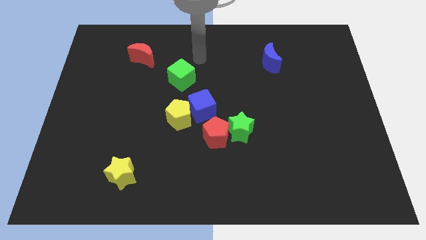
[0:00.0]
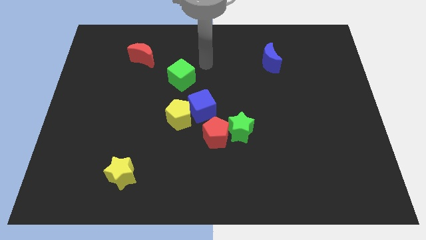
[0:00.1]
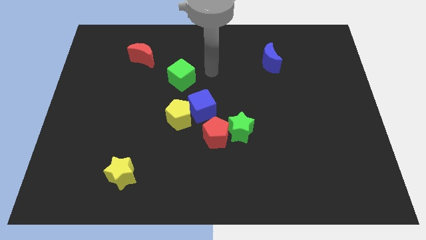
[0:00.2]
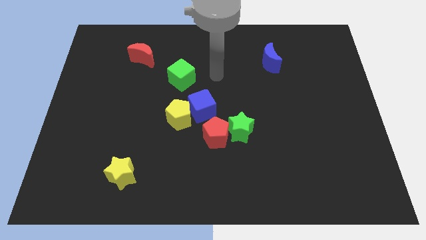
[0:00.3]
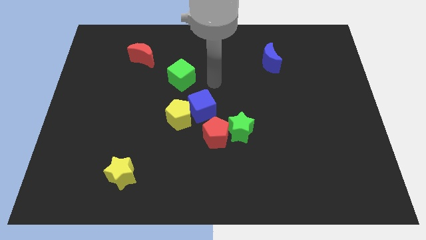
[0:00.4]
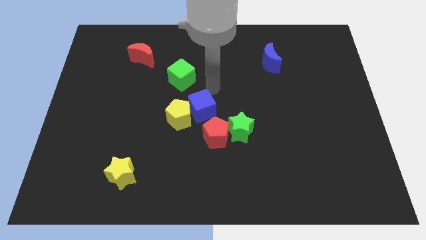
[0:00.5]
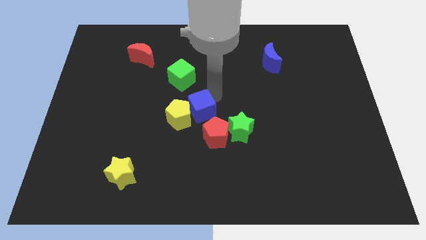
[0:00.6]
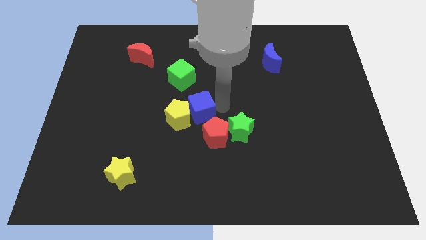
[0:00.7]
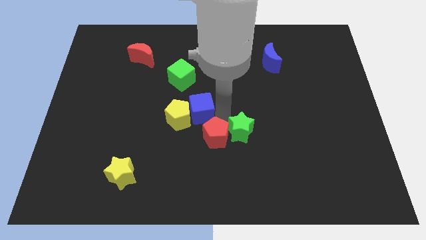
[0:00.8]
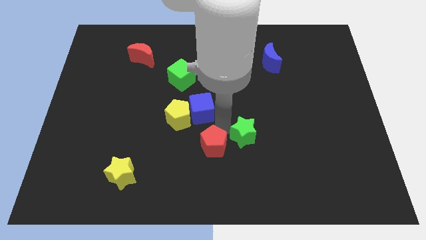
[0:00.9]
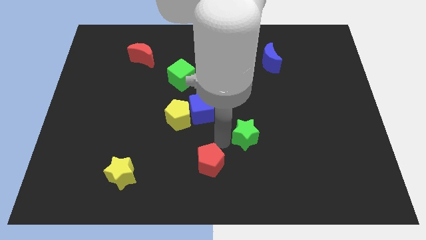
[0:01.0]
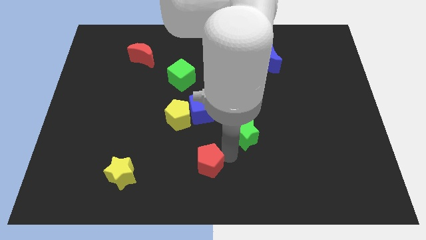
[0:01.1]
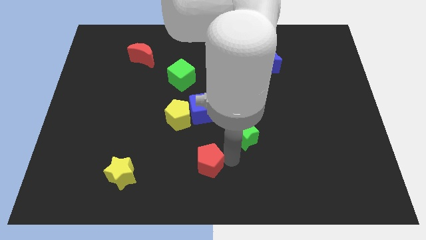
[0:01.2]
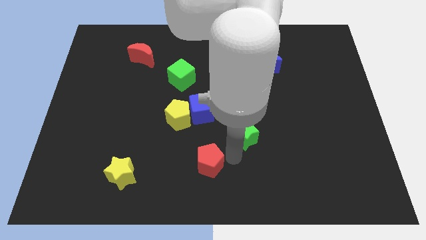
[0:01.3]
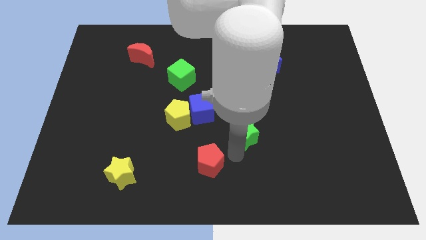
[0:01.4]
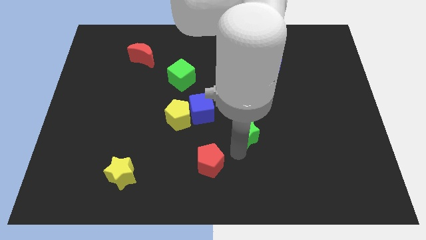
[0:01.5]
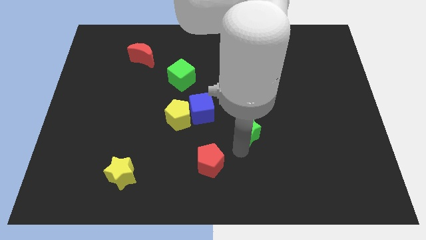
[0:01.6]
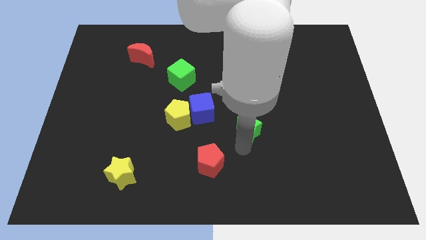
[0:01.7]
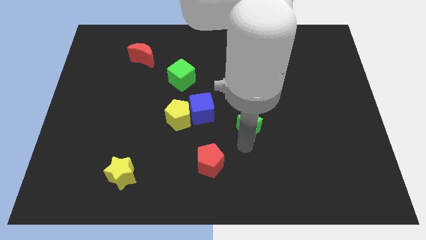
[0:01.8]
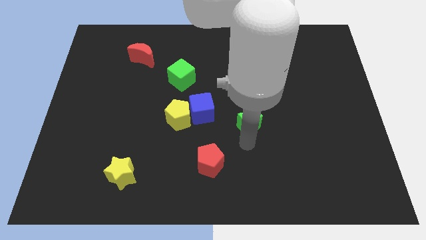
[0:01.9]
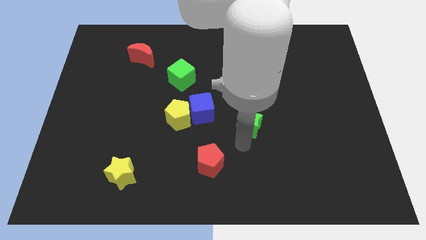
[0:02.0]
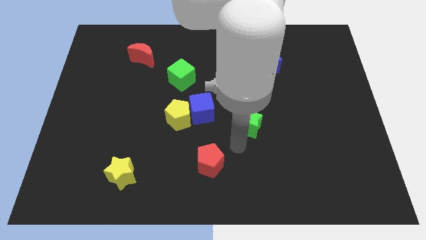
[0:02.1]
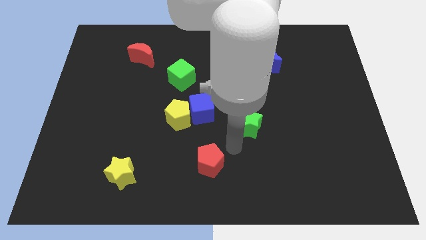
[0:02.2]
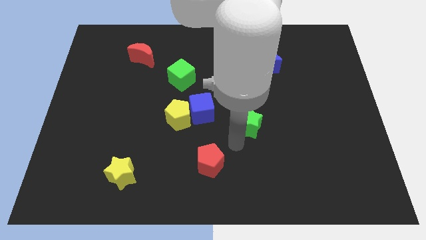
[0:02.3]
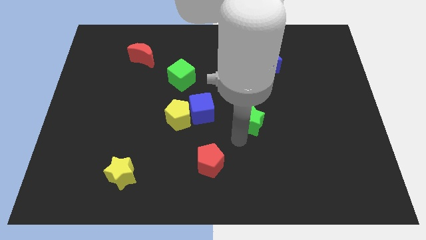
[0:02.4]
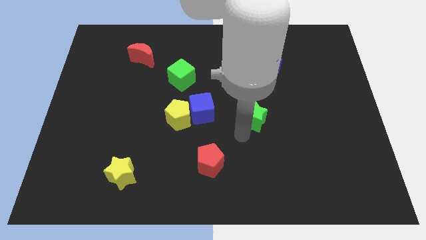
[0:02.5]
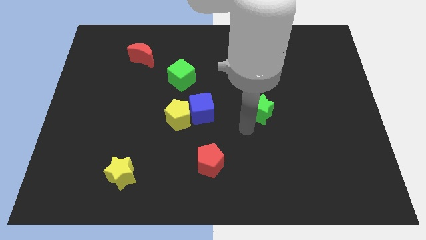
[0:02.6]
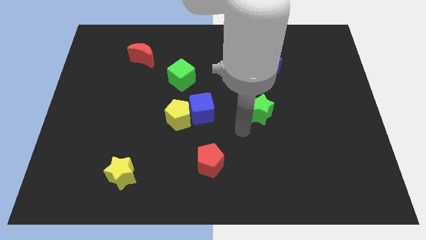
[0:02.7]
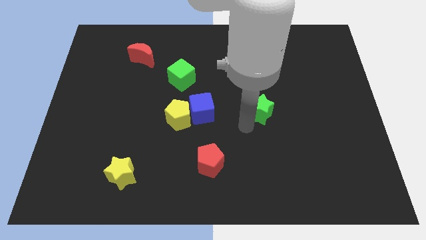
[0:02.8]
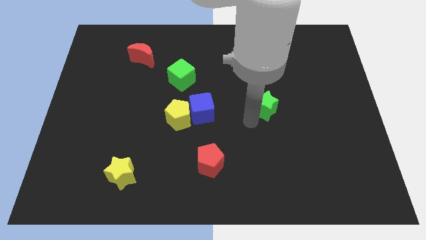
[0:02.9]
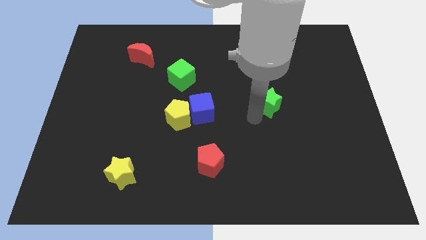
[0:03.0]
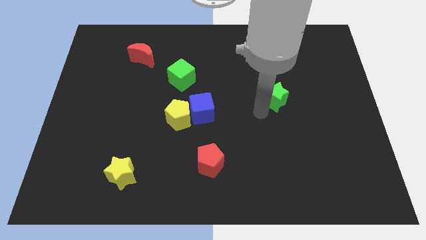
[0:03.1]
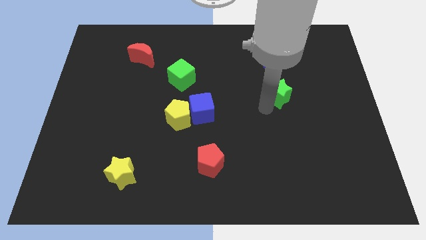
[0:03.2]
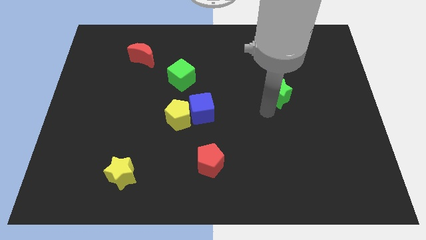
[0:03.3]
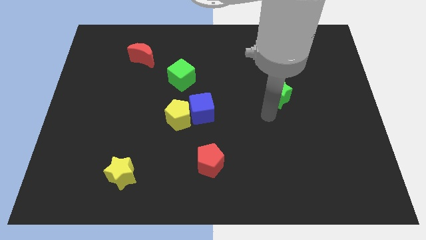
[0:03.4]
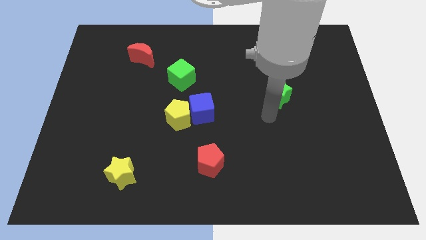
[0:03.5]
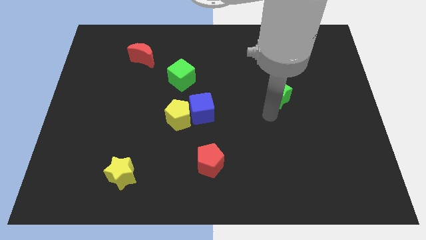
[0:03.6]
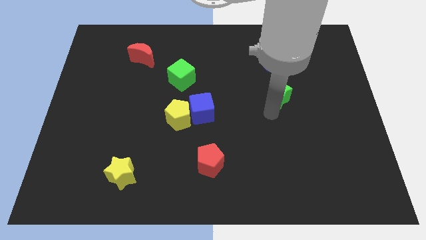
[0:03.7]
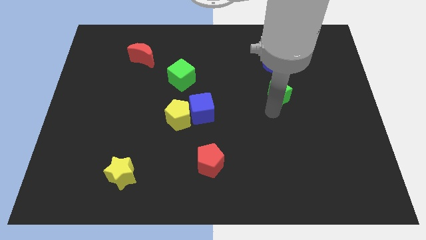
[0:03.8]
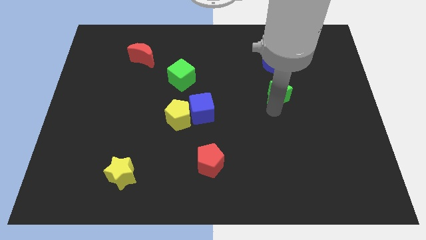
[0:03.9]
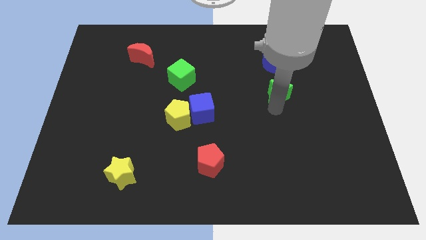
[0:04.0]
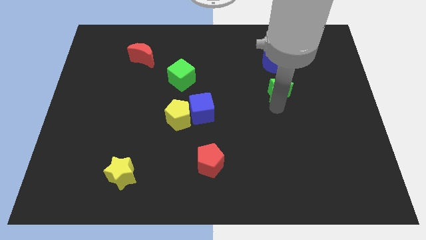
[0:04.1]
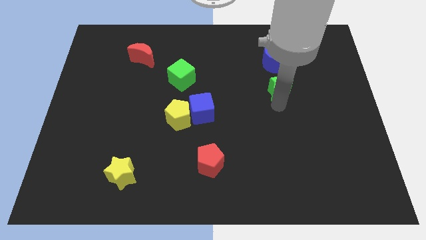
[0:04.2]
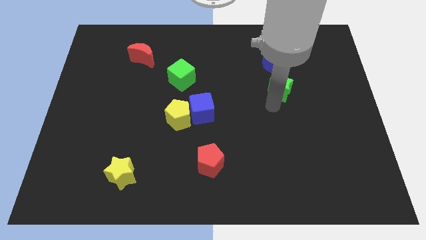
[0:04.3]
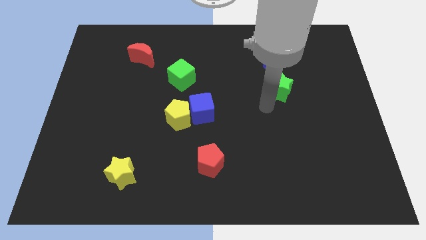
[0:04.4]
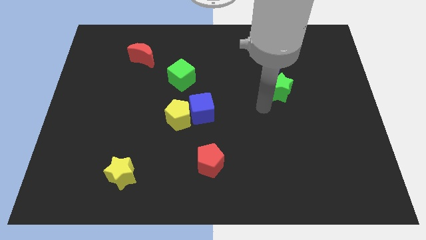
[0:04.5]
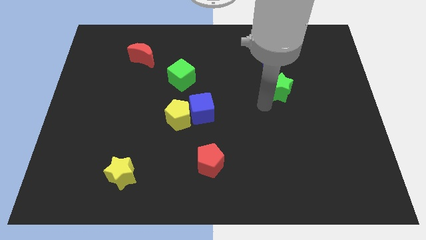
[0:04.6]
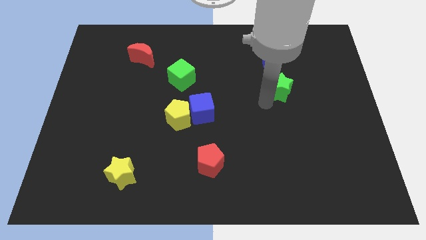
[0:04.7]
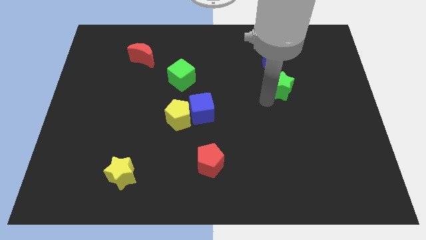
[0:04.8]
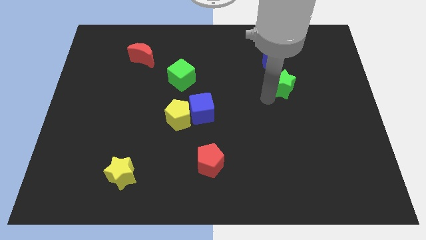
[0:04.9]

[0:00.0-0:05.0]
slide the green star diagonally down and to the right of the blue moon

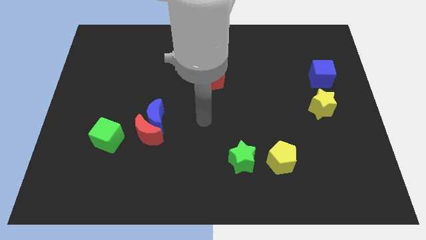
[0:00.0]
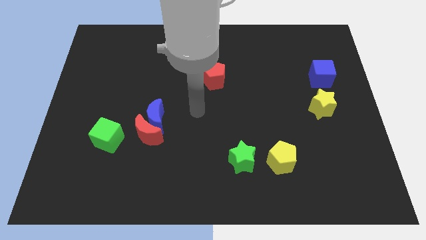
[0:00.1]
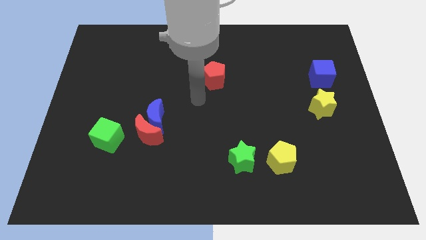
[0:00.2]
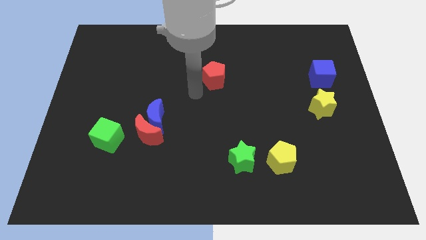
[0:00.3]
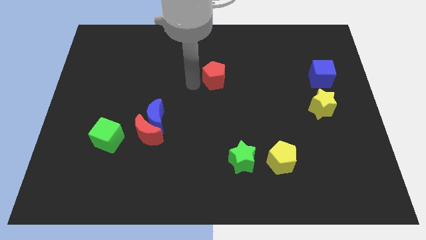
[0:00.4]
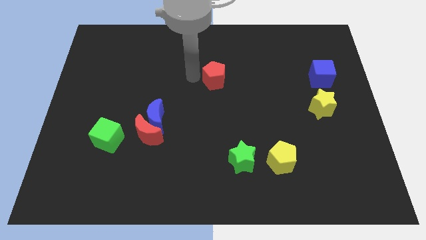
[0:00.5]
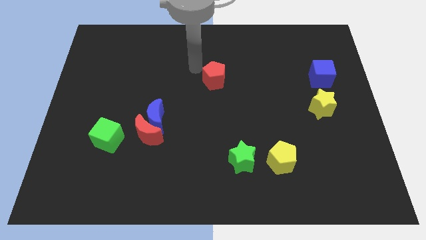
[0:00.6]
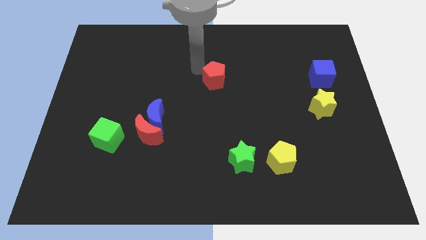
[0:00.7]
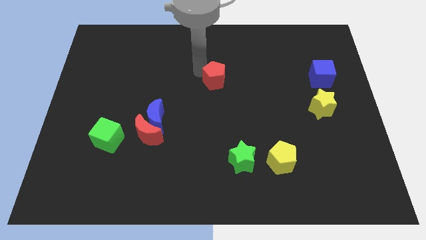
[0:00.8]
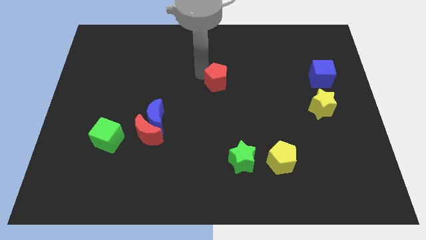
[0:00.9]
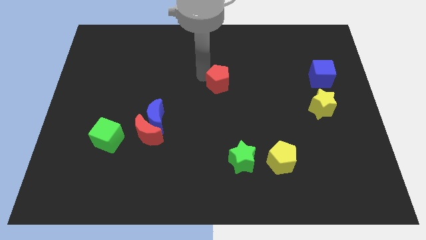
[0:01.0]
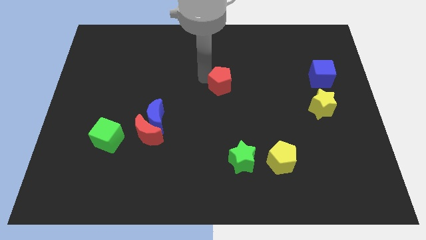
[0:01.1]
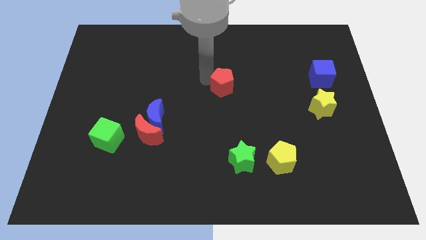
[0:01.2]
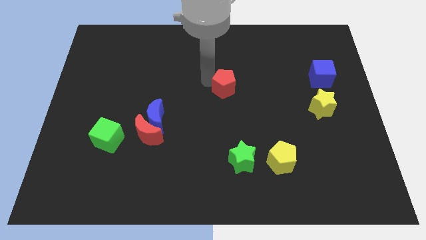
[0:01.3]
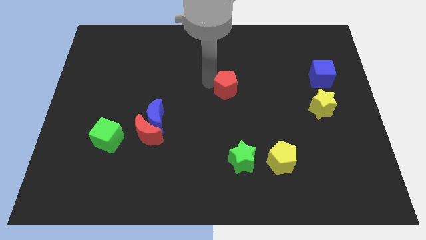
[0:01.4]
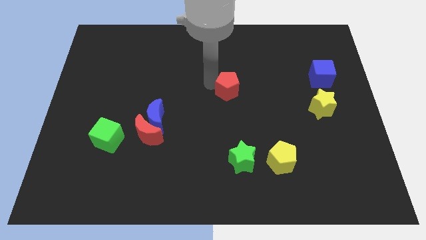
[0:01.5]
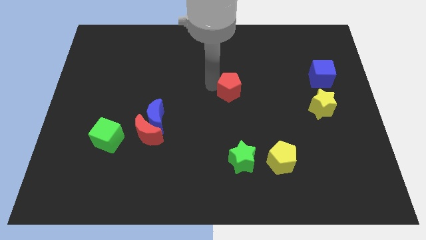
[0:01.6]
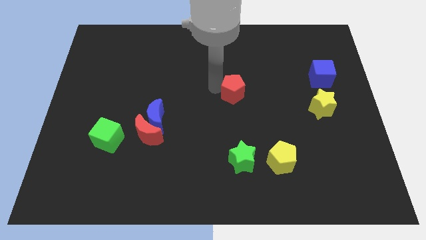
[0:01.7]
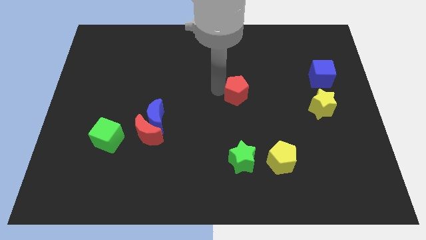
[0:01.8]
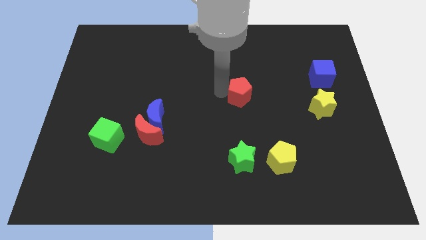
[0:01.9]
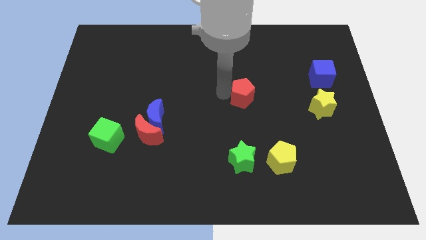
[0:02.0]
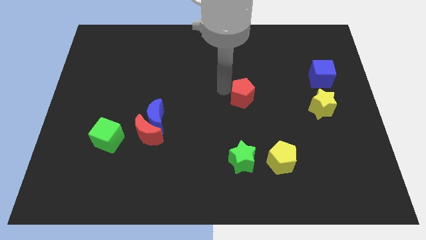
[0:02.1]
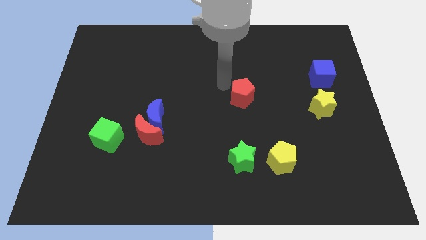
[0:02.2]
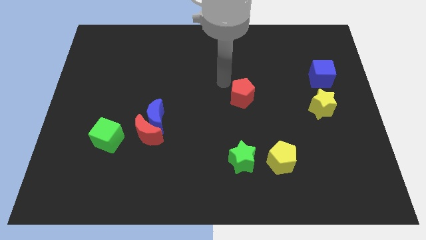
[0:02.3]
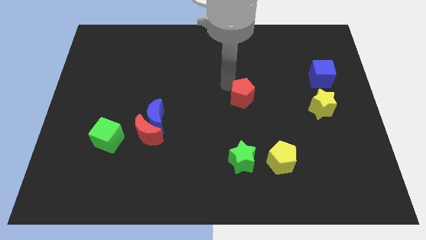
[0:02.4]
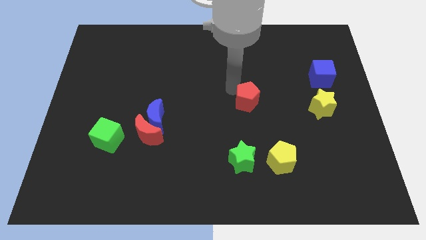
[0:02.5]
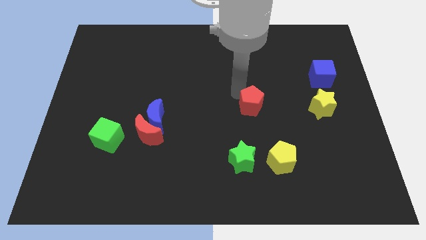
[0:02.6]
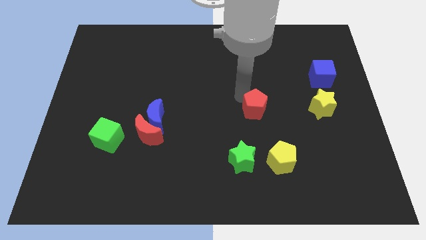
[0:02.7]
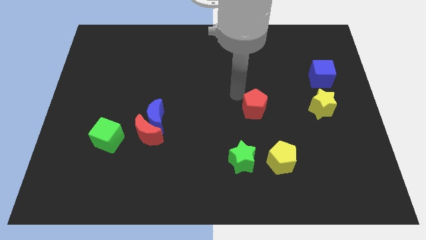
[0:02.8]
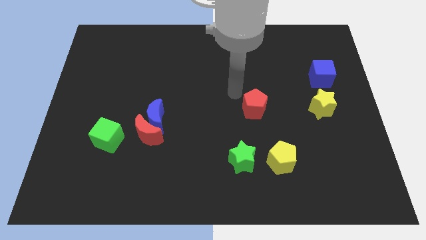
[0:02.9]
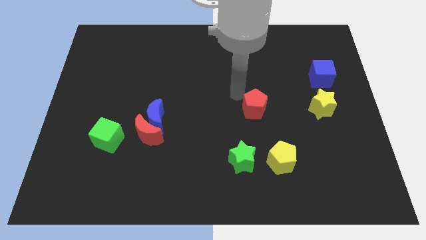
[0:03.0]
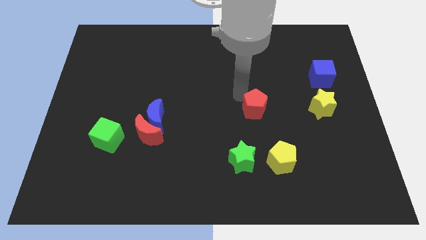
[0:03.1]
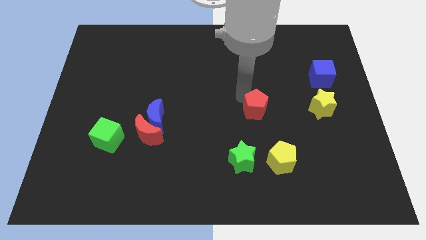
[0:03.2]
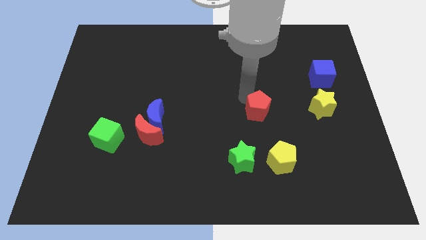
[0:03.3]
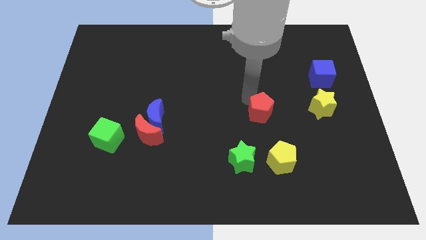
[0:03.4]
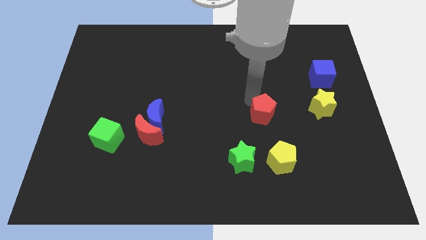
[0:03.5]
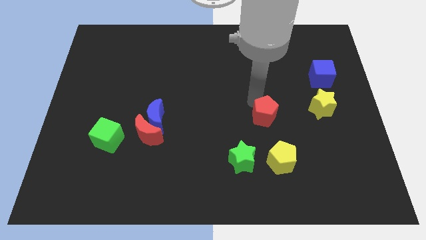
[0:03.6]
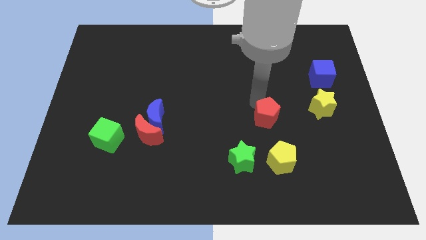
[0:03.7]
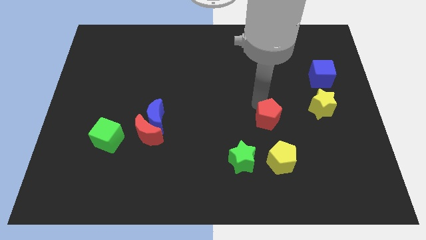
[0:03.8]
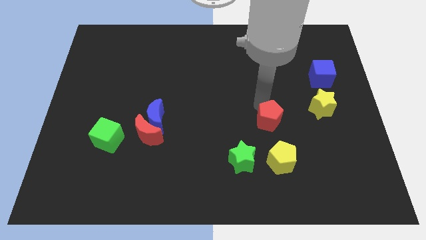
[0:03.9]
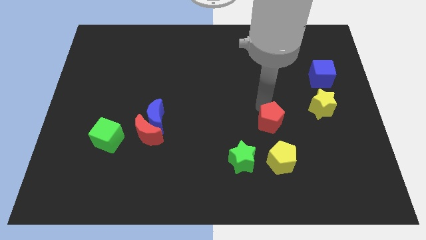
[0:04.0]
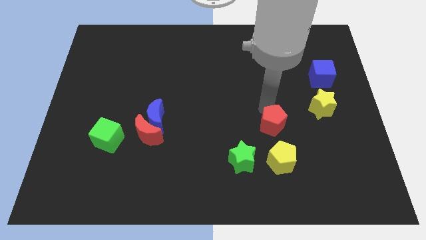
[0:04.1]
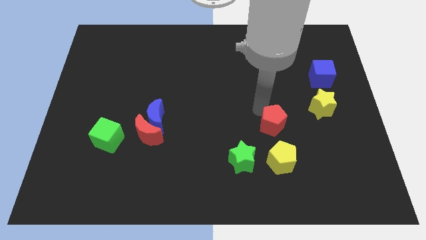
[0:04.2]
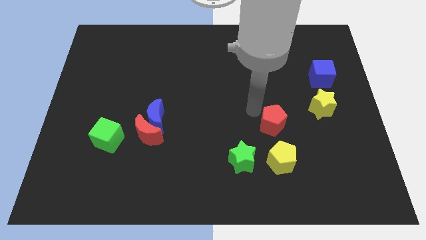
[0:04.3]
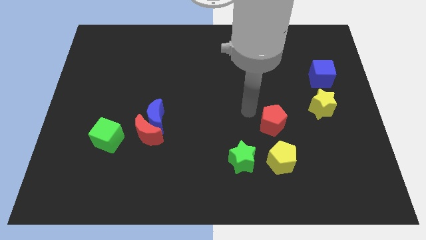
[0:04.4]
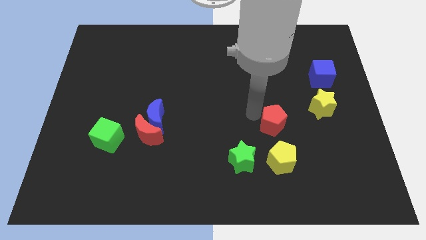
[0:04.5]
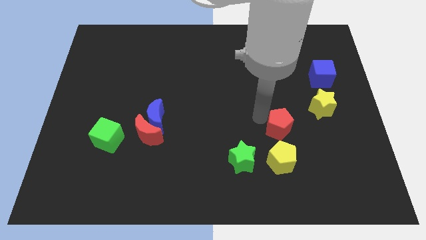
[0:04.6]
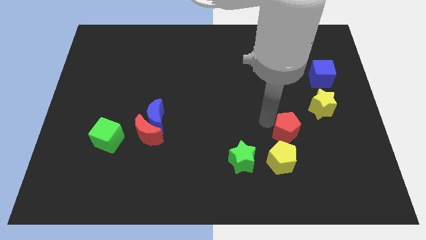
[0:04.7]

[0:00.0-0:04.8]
move the red pentagon to the top right side of the yellow pentagon
